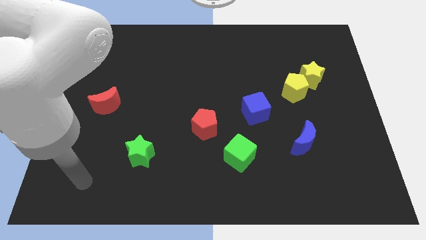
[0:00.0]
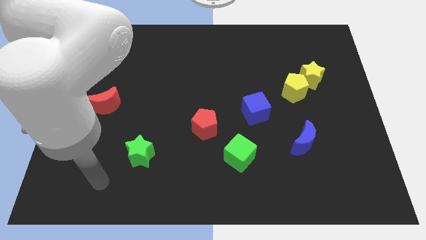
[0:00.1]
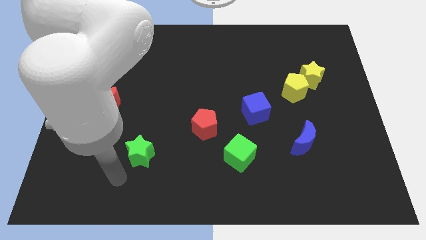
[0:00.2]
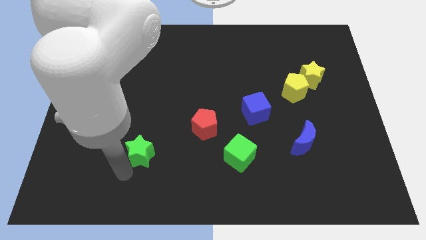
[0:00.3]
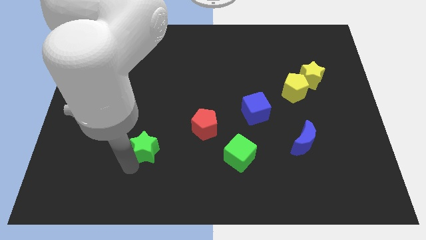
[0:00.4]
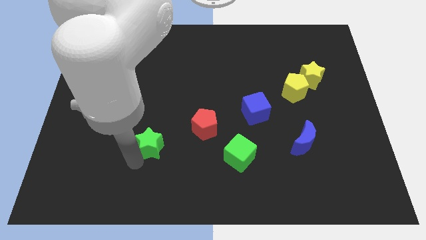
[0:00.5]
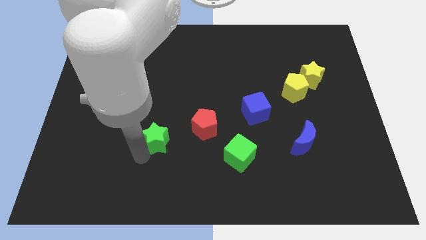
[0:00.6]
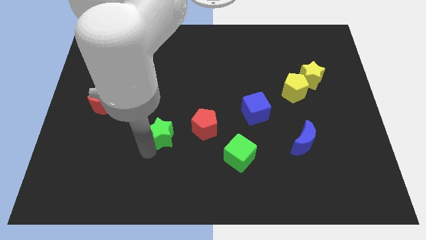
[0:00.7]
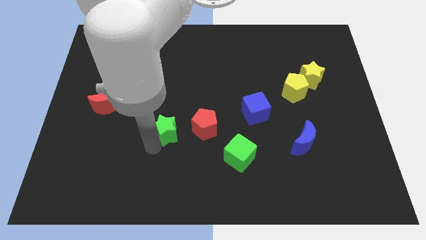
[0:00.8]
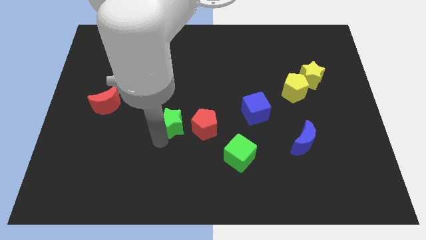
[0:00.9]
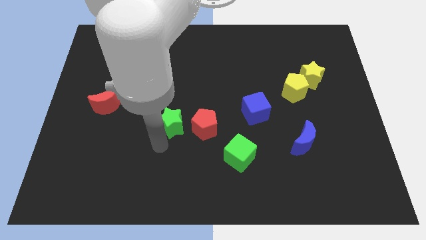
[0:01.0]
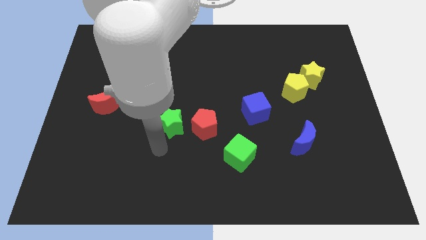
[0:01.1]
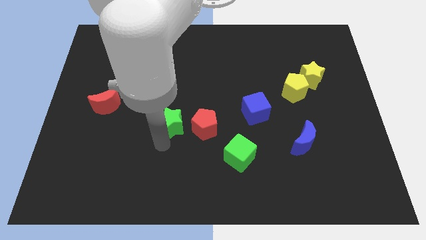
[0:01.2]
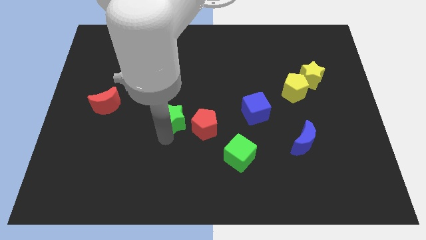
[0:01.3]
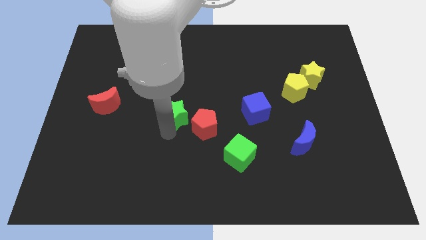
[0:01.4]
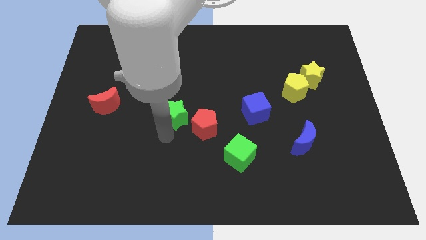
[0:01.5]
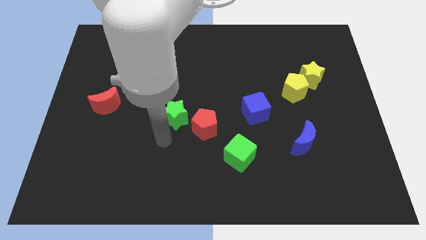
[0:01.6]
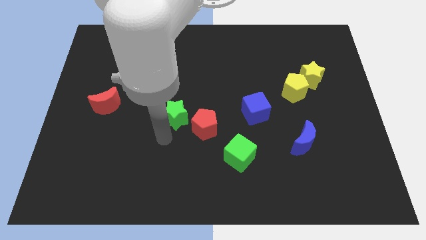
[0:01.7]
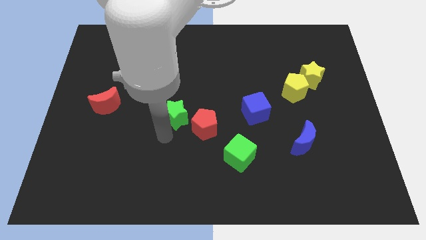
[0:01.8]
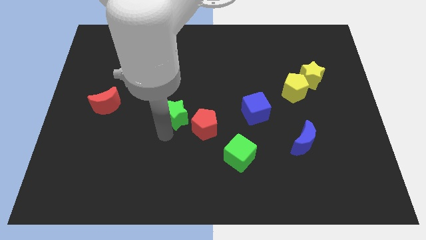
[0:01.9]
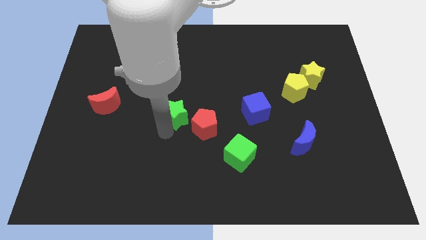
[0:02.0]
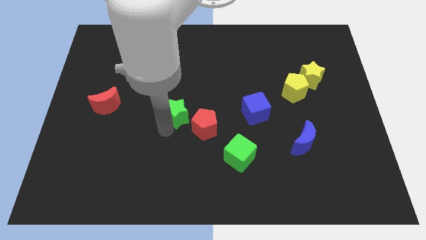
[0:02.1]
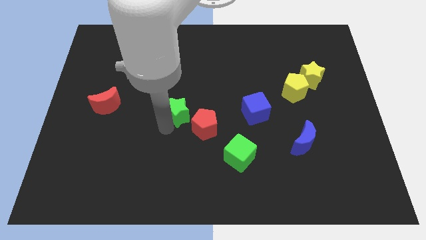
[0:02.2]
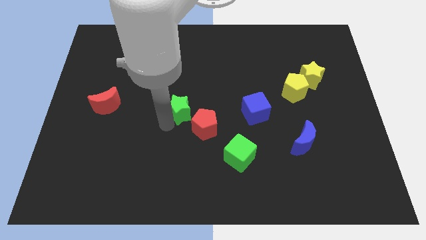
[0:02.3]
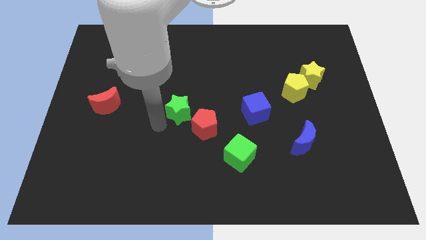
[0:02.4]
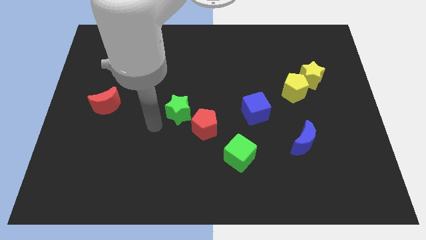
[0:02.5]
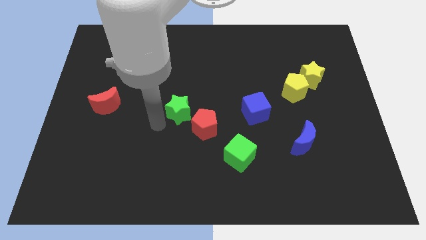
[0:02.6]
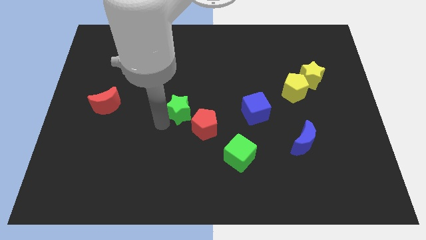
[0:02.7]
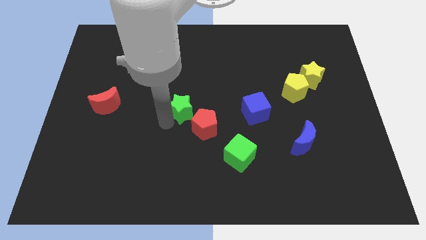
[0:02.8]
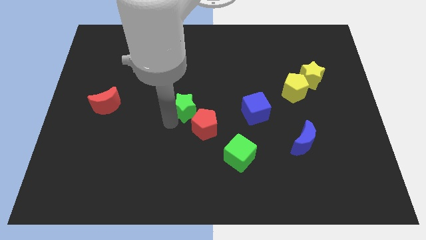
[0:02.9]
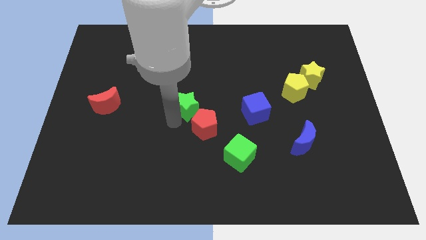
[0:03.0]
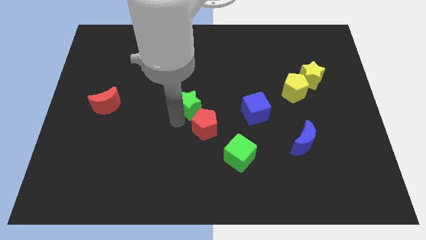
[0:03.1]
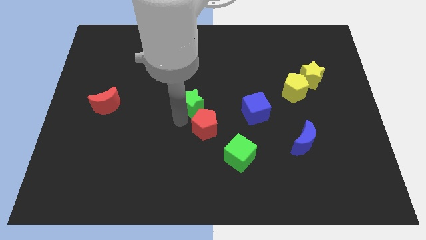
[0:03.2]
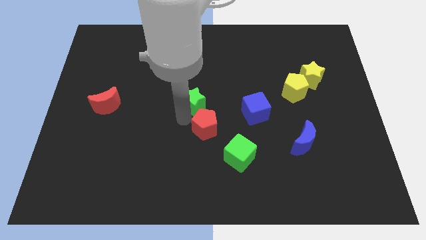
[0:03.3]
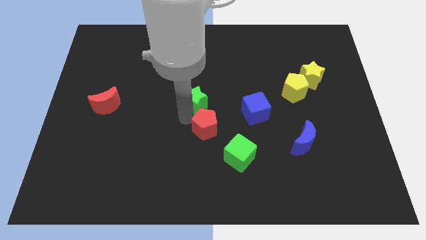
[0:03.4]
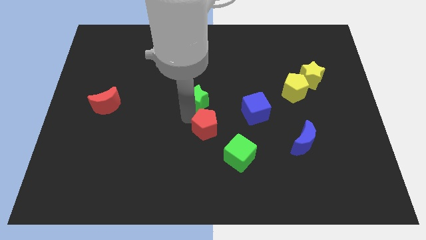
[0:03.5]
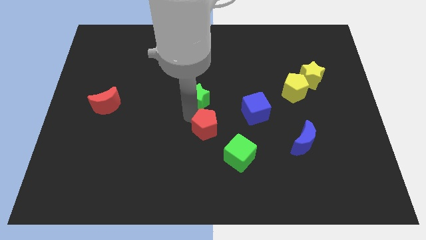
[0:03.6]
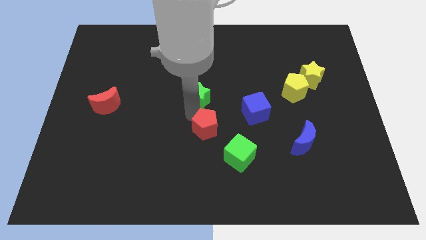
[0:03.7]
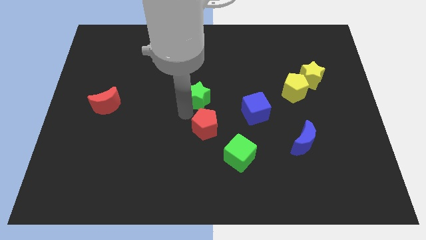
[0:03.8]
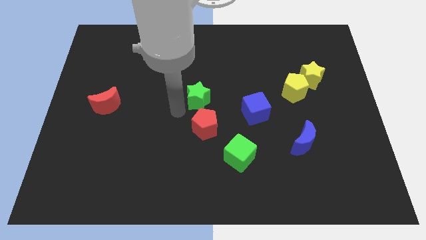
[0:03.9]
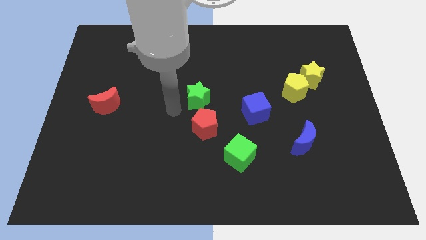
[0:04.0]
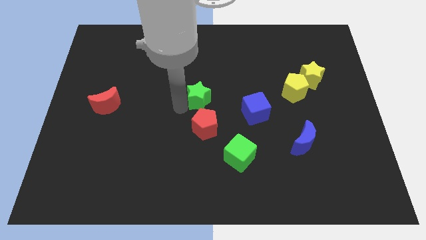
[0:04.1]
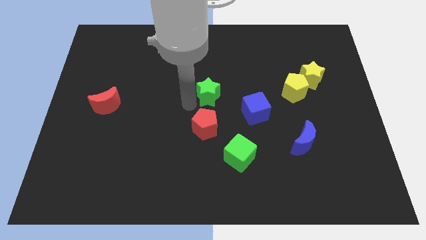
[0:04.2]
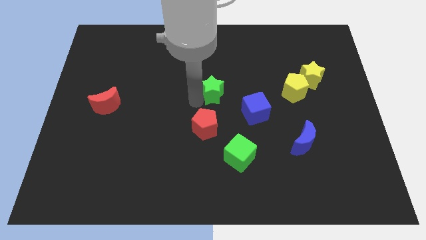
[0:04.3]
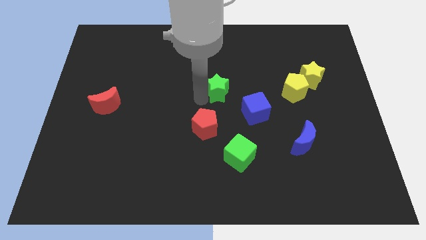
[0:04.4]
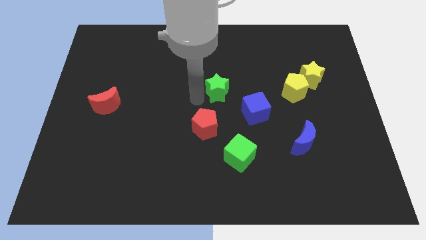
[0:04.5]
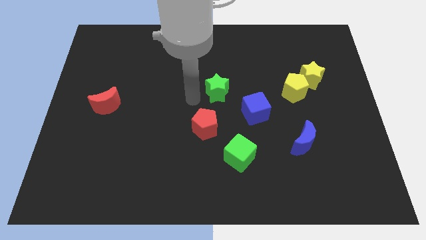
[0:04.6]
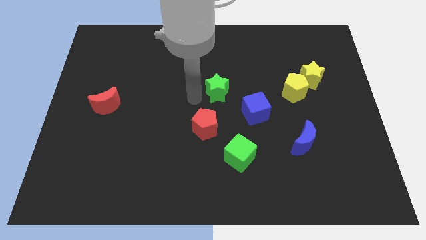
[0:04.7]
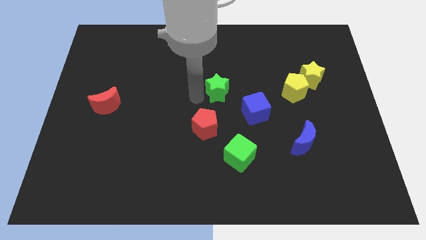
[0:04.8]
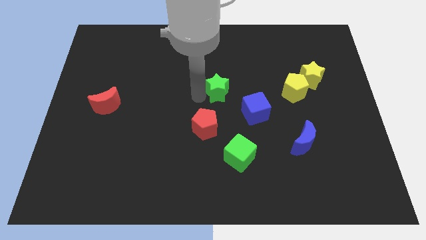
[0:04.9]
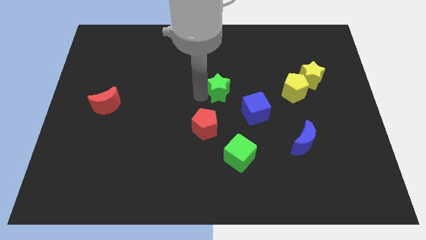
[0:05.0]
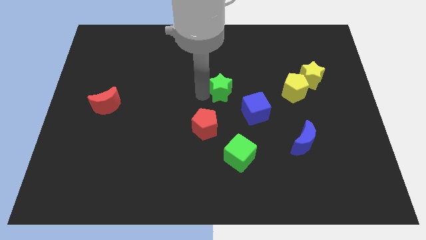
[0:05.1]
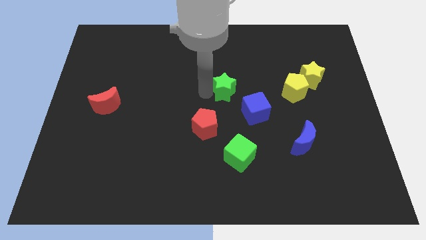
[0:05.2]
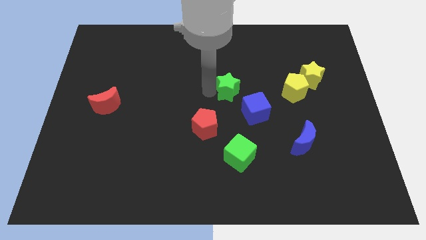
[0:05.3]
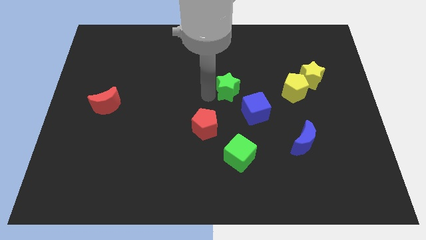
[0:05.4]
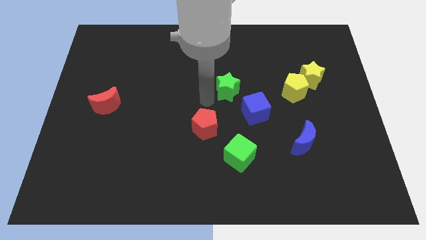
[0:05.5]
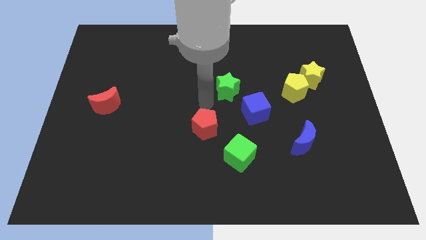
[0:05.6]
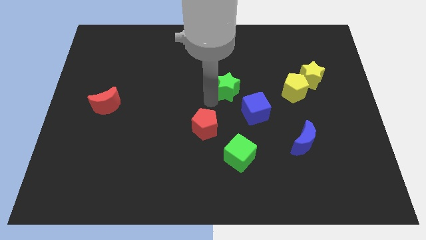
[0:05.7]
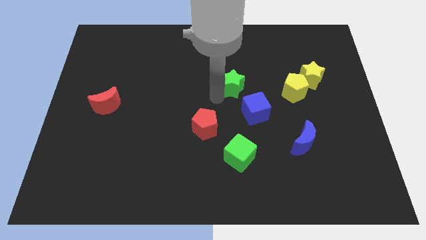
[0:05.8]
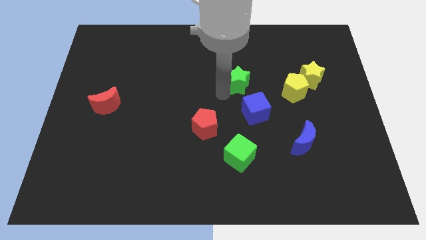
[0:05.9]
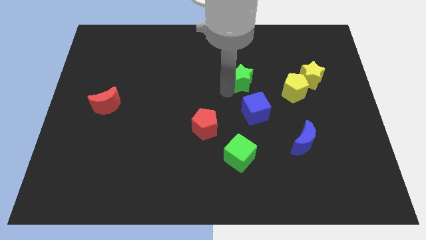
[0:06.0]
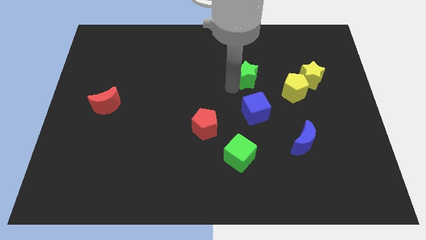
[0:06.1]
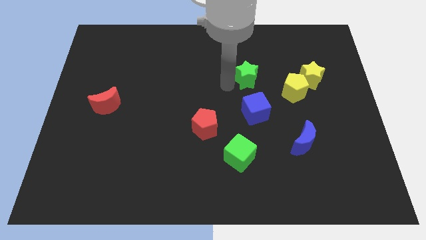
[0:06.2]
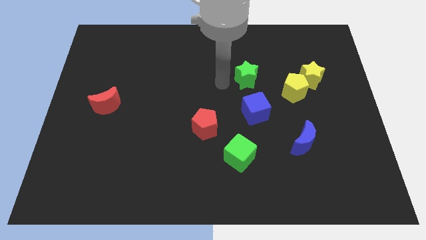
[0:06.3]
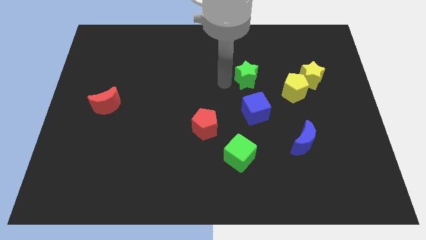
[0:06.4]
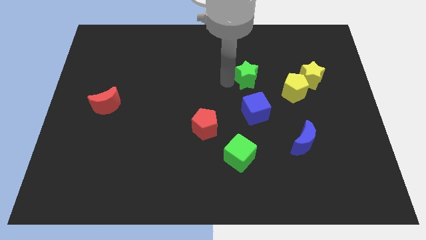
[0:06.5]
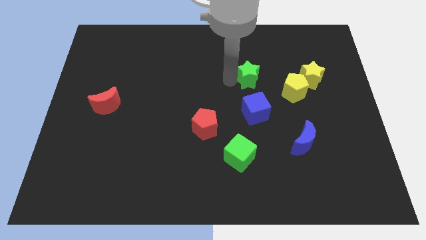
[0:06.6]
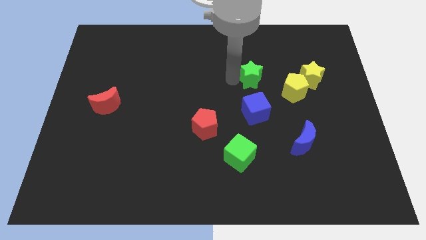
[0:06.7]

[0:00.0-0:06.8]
push the green star to the top left of the yellow pentagon
